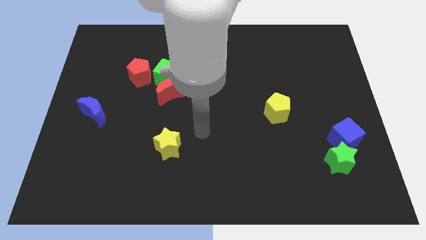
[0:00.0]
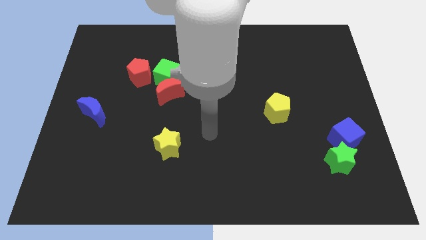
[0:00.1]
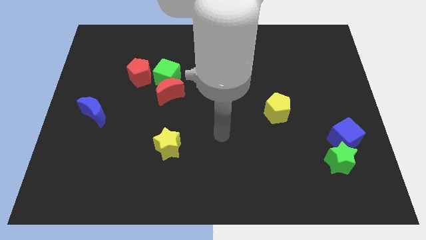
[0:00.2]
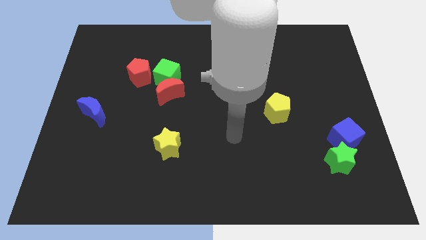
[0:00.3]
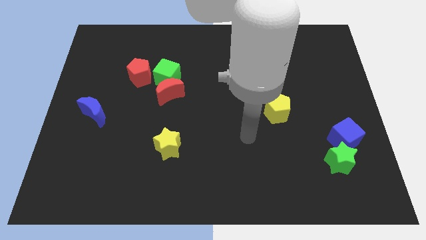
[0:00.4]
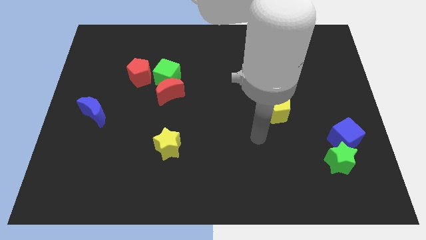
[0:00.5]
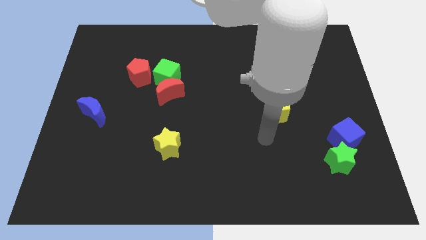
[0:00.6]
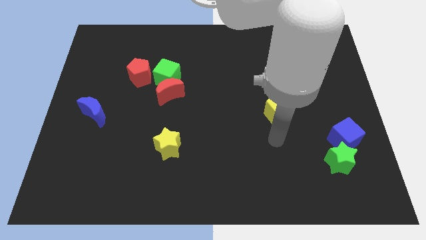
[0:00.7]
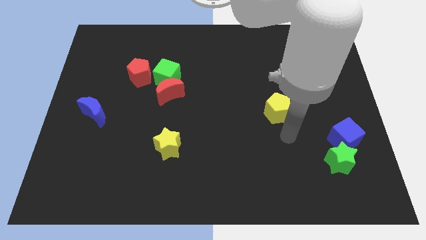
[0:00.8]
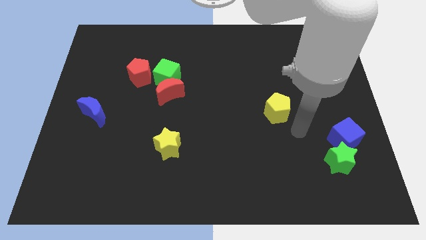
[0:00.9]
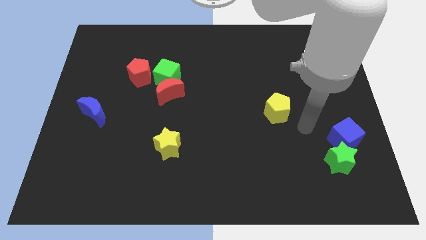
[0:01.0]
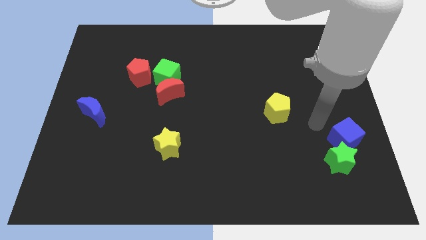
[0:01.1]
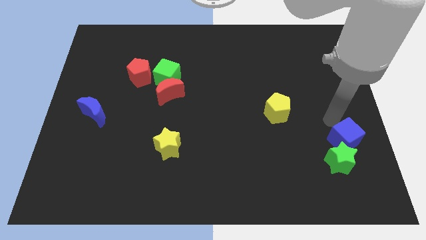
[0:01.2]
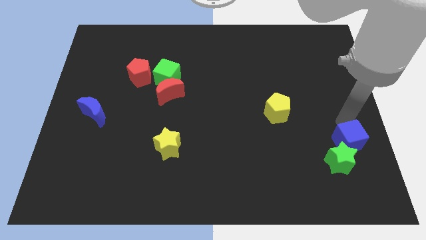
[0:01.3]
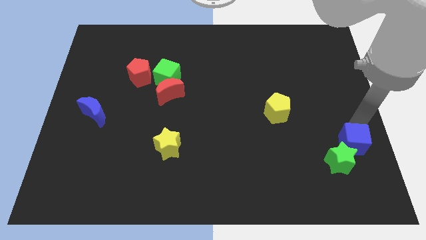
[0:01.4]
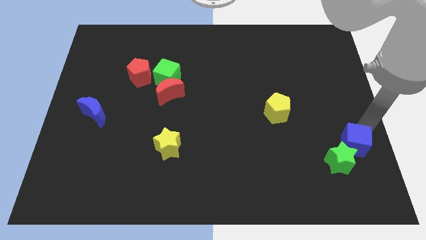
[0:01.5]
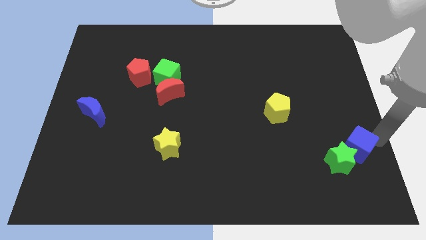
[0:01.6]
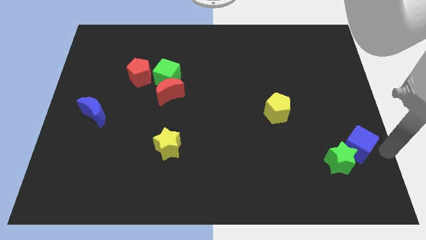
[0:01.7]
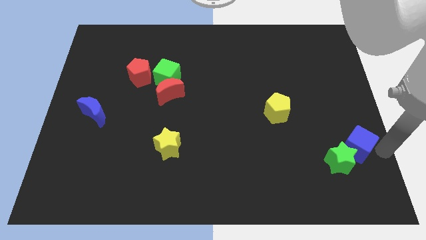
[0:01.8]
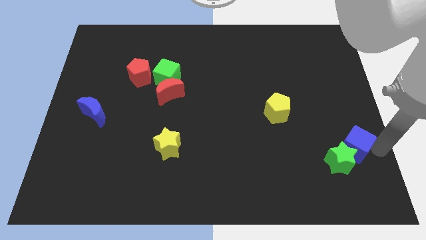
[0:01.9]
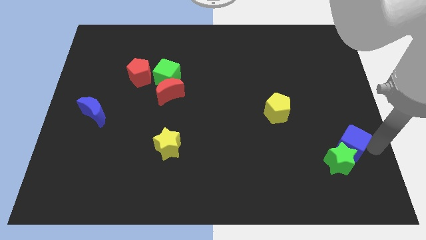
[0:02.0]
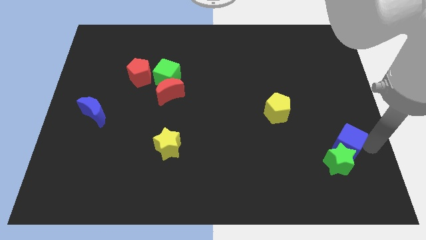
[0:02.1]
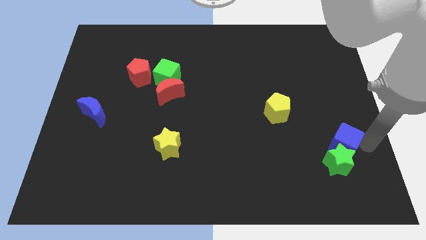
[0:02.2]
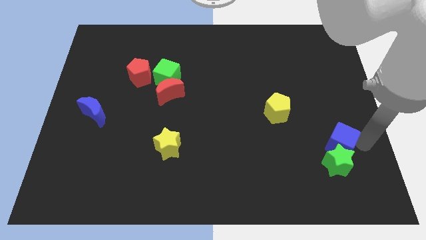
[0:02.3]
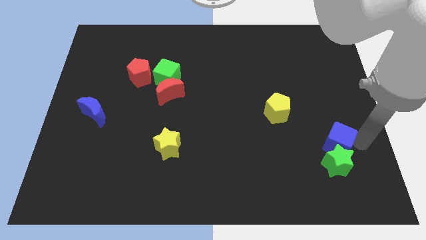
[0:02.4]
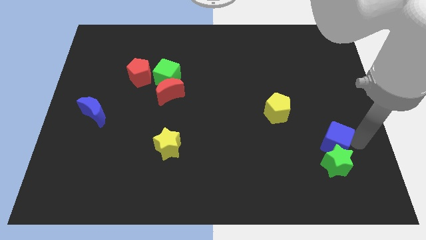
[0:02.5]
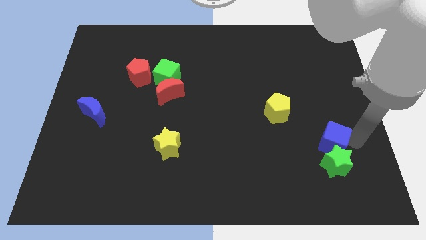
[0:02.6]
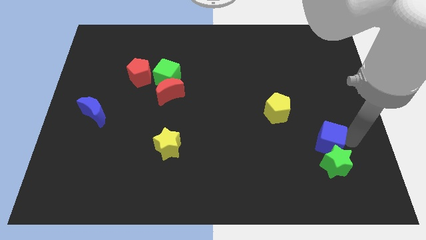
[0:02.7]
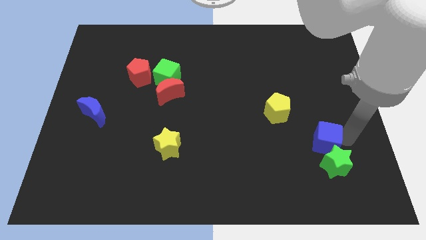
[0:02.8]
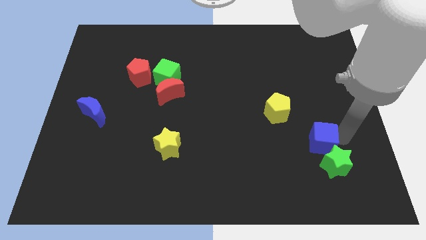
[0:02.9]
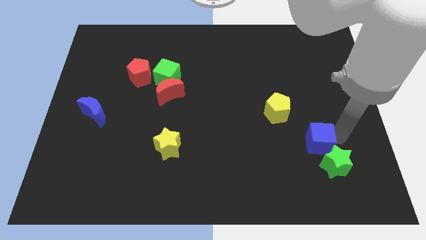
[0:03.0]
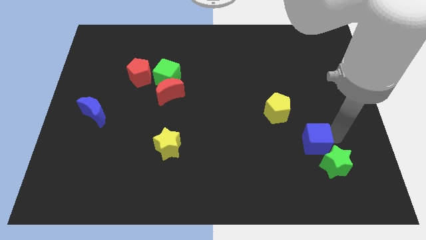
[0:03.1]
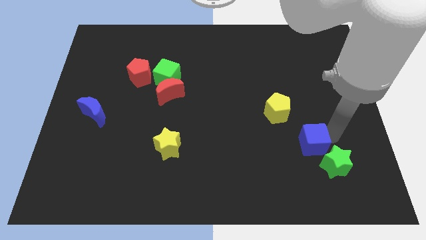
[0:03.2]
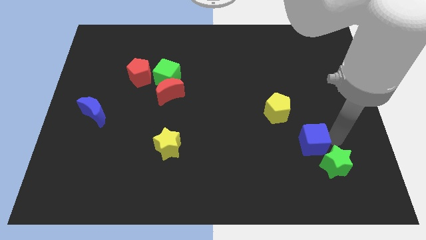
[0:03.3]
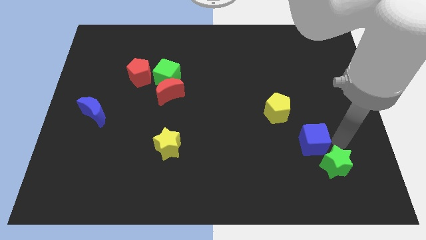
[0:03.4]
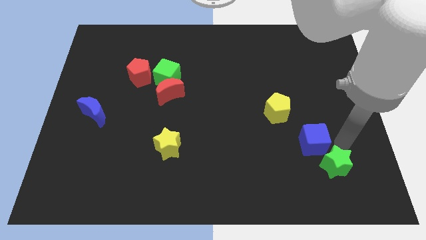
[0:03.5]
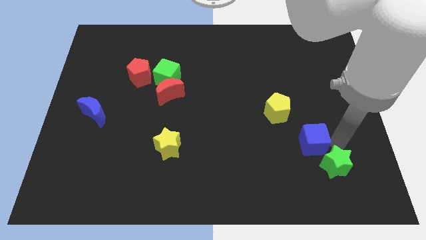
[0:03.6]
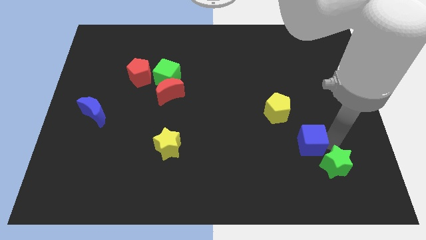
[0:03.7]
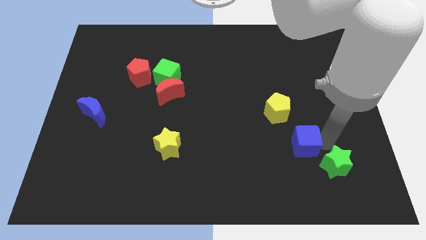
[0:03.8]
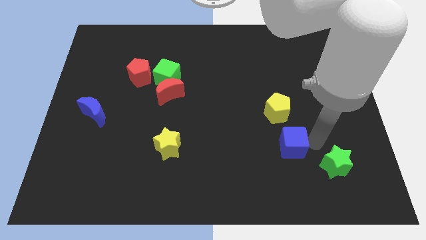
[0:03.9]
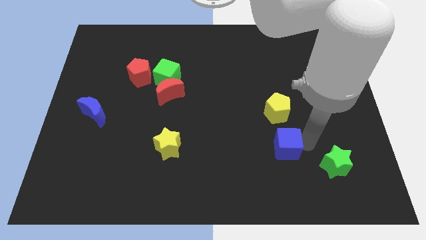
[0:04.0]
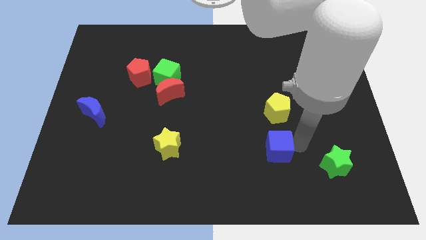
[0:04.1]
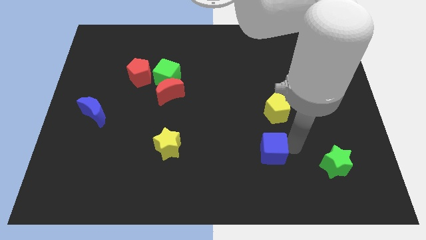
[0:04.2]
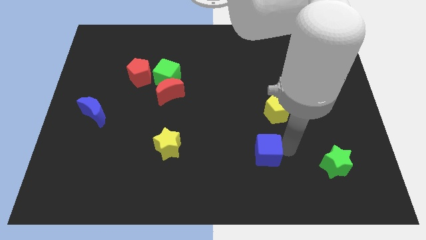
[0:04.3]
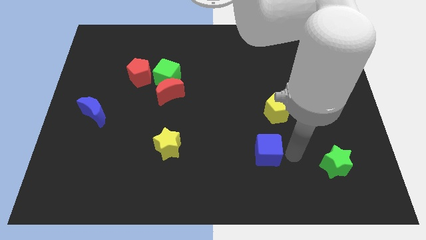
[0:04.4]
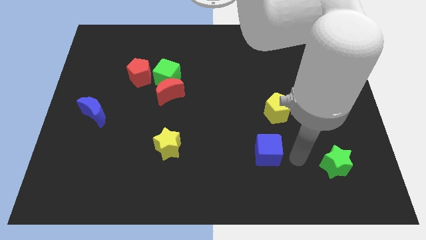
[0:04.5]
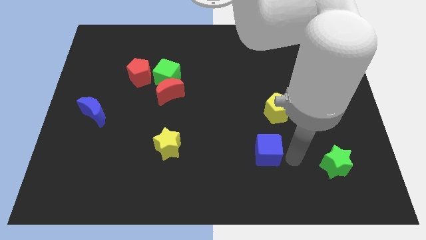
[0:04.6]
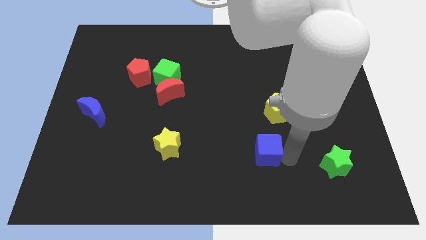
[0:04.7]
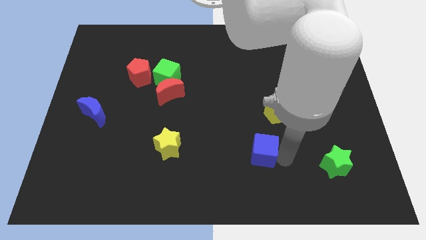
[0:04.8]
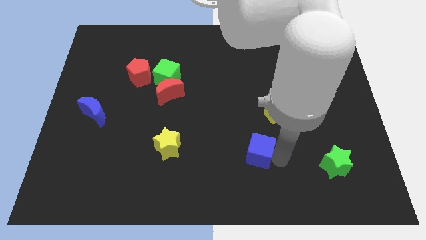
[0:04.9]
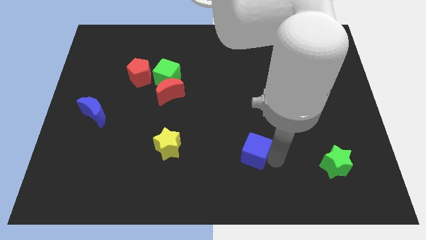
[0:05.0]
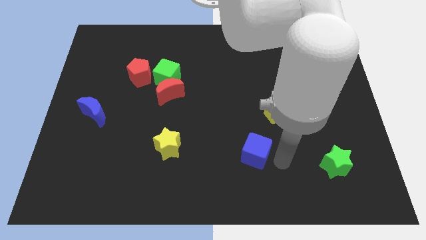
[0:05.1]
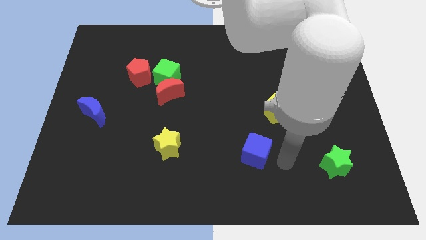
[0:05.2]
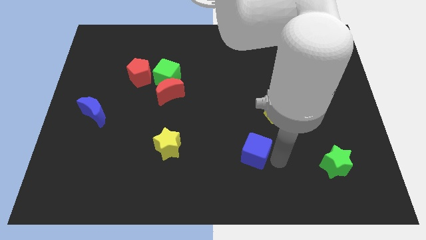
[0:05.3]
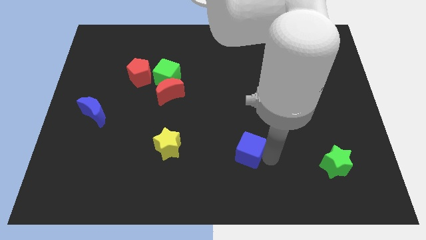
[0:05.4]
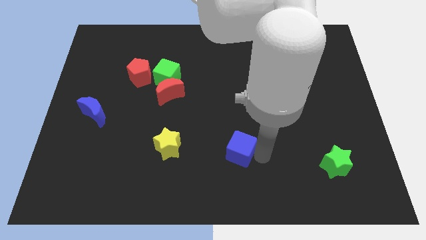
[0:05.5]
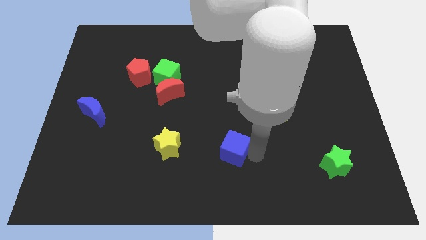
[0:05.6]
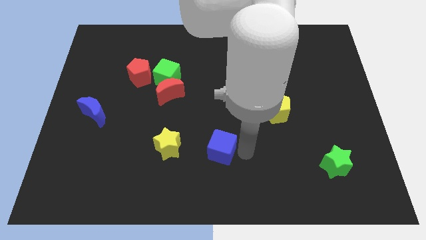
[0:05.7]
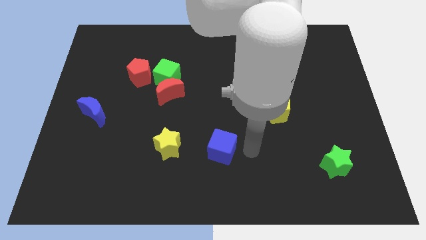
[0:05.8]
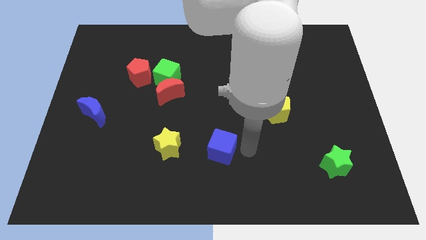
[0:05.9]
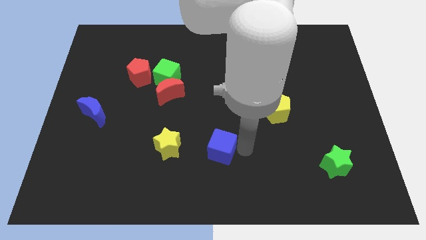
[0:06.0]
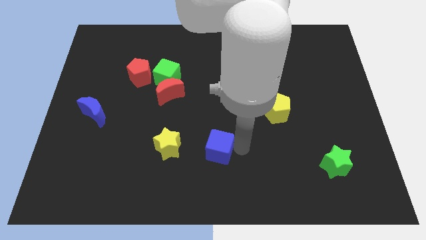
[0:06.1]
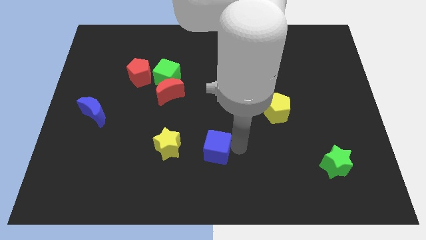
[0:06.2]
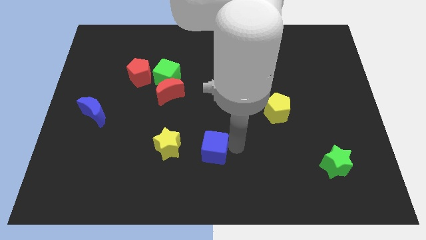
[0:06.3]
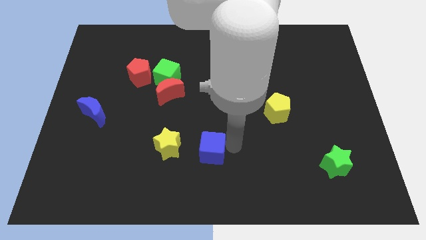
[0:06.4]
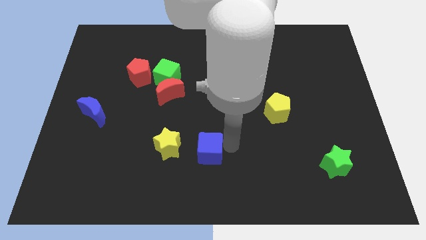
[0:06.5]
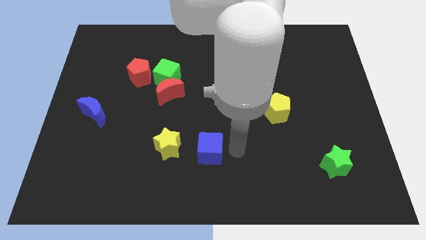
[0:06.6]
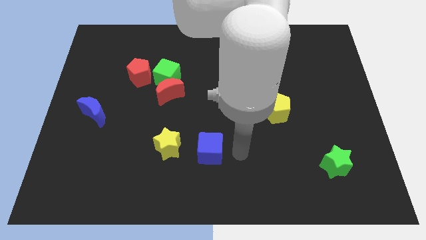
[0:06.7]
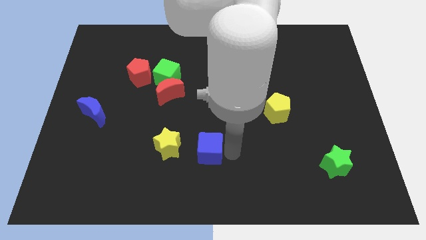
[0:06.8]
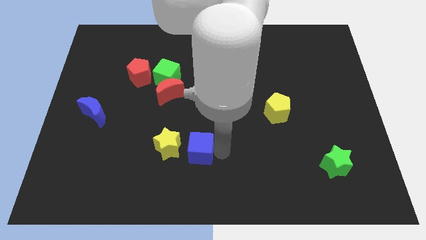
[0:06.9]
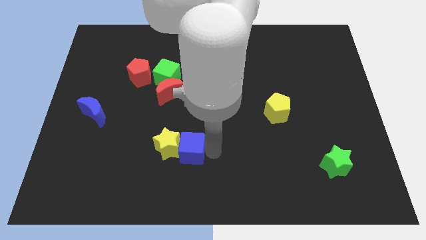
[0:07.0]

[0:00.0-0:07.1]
push the blue cube next to the yellow star

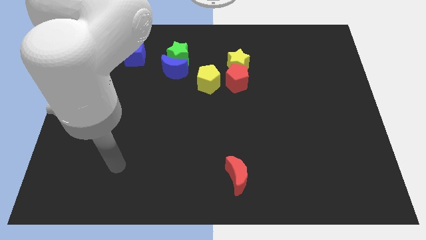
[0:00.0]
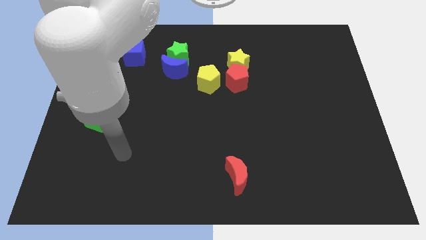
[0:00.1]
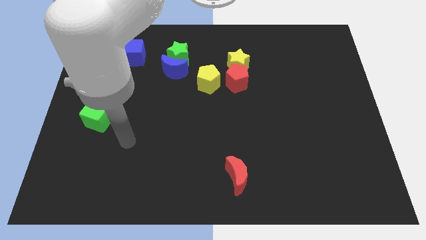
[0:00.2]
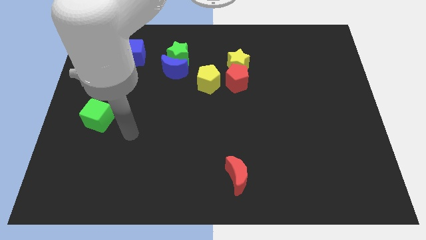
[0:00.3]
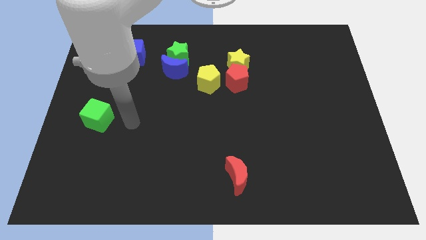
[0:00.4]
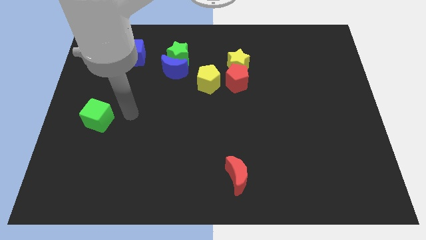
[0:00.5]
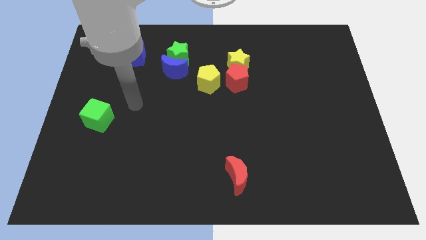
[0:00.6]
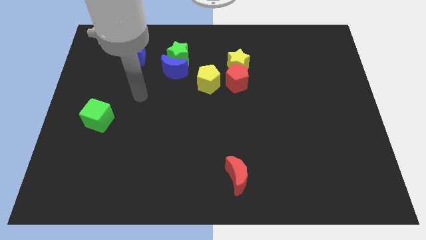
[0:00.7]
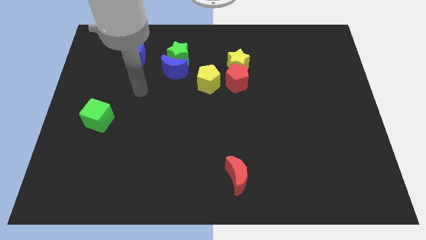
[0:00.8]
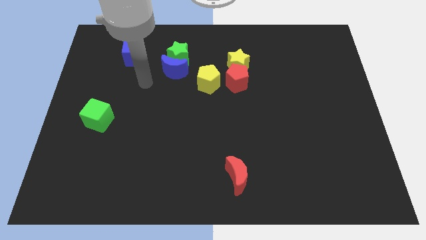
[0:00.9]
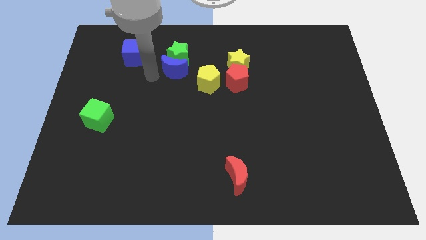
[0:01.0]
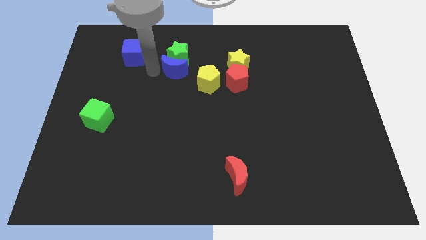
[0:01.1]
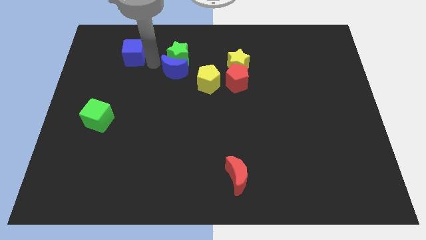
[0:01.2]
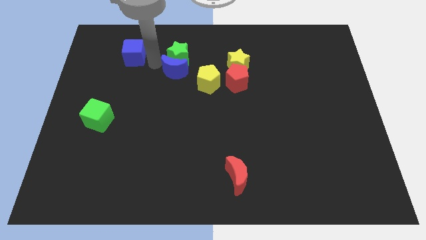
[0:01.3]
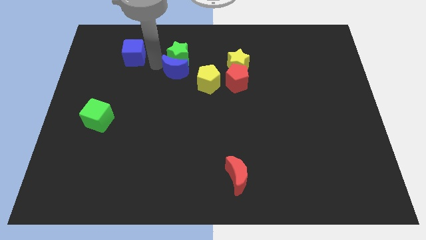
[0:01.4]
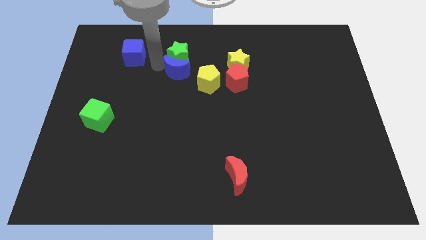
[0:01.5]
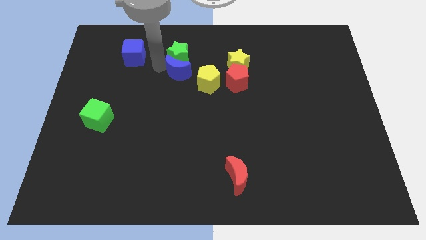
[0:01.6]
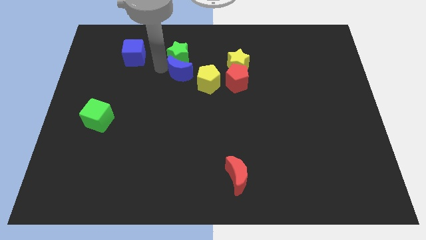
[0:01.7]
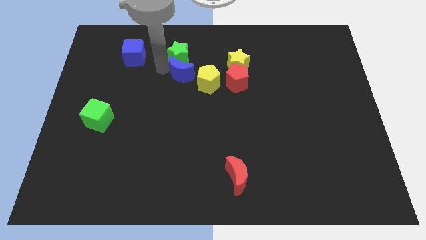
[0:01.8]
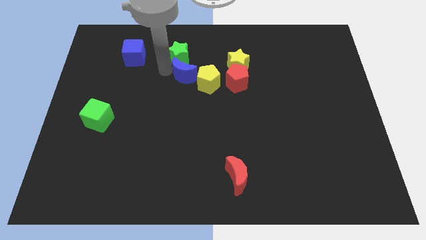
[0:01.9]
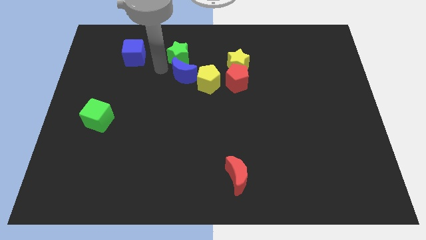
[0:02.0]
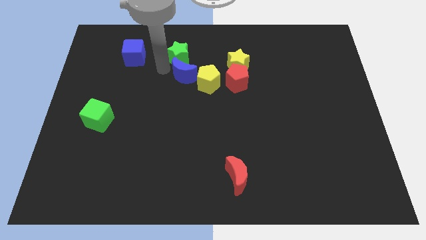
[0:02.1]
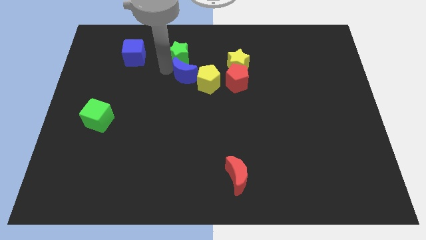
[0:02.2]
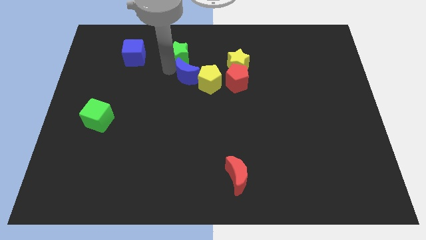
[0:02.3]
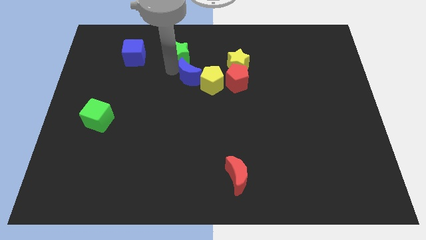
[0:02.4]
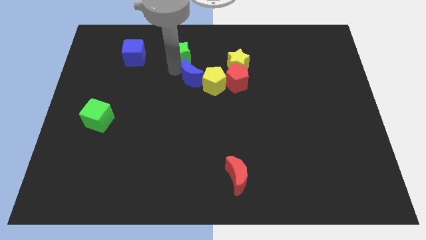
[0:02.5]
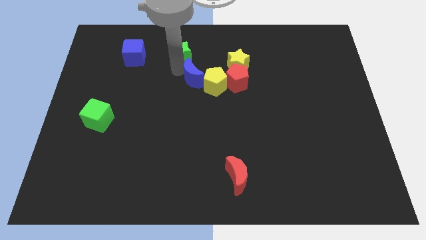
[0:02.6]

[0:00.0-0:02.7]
move the blue moon next to the yellow pentagon
